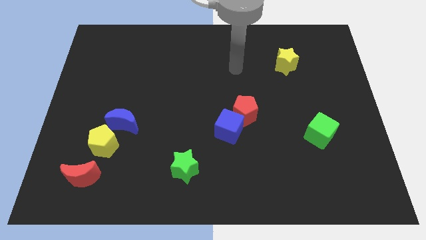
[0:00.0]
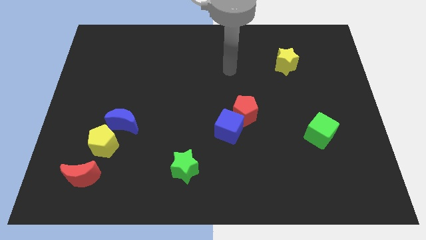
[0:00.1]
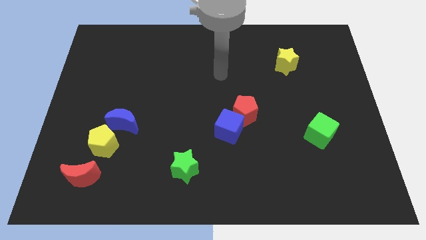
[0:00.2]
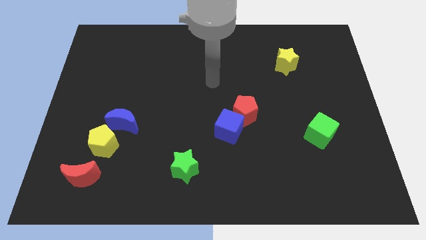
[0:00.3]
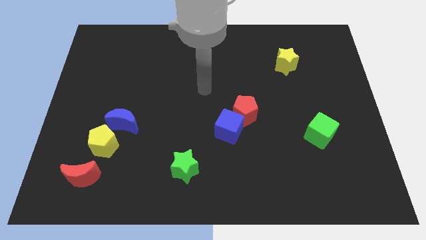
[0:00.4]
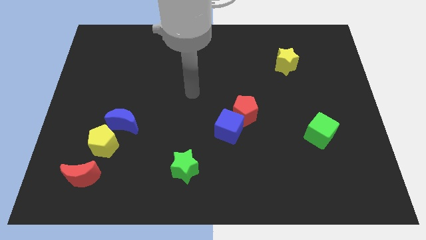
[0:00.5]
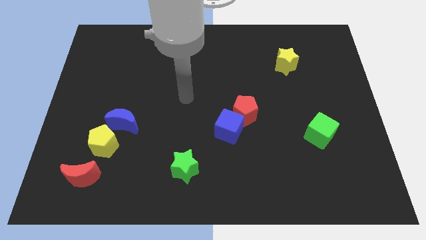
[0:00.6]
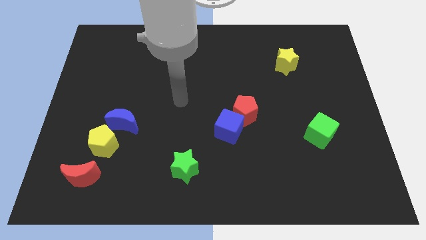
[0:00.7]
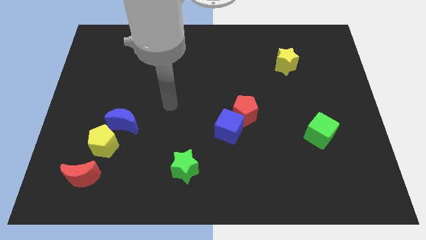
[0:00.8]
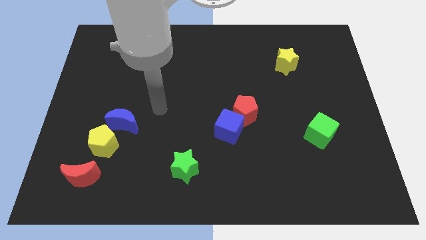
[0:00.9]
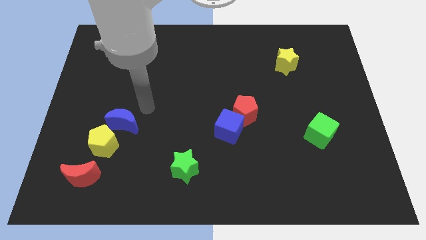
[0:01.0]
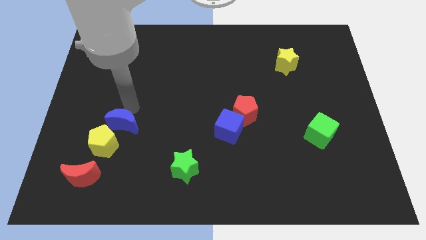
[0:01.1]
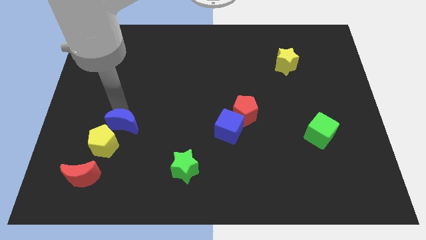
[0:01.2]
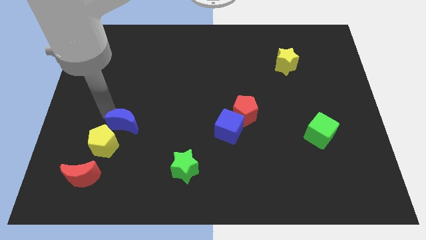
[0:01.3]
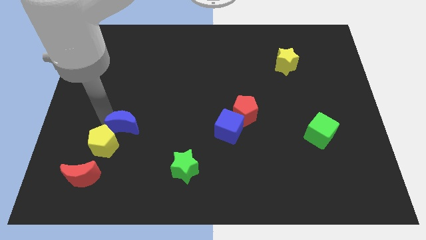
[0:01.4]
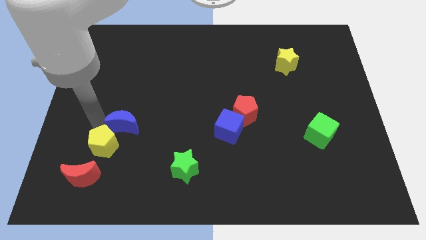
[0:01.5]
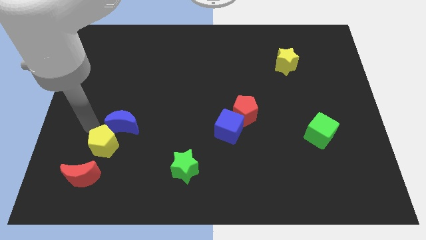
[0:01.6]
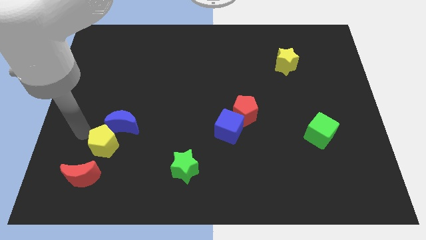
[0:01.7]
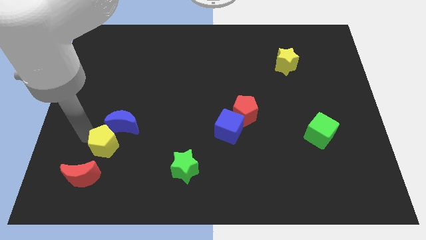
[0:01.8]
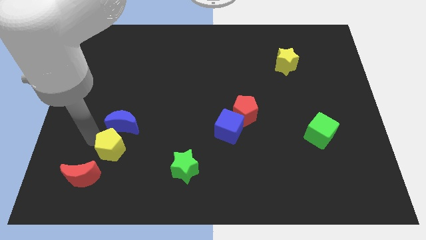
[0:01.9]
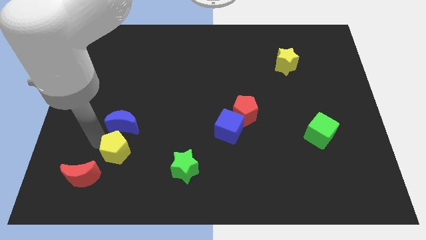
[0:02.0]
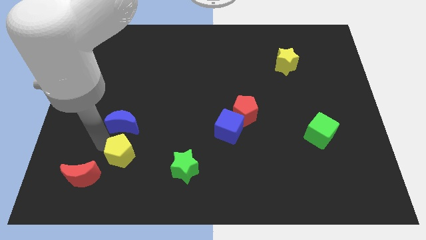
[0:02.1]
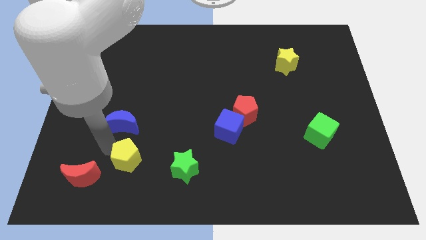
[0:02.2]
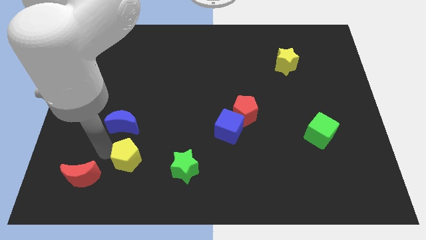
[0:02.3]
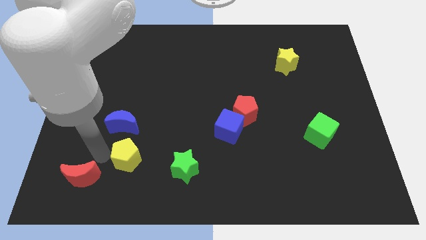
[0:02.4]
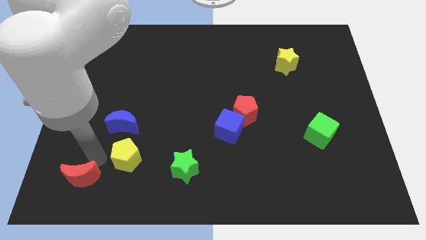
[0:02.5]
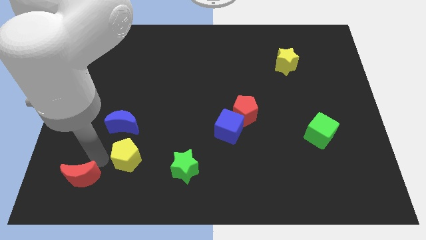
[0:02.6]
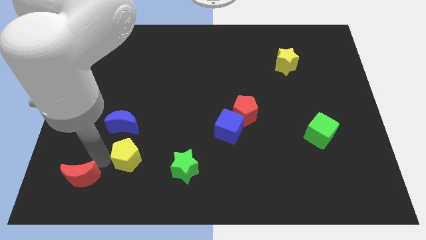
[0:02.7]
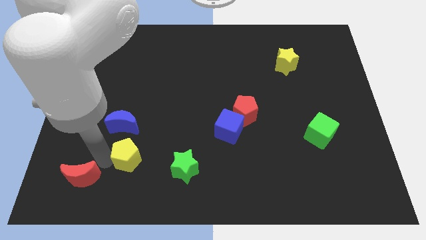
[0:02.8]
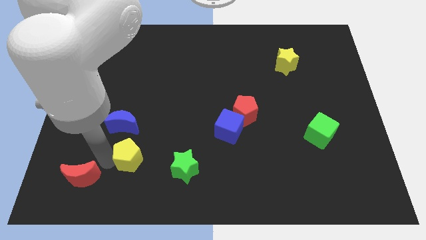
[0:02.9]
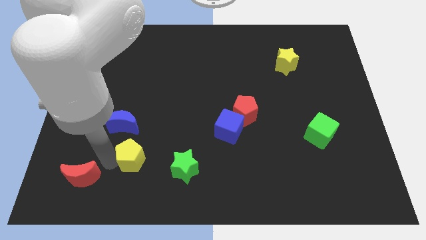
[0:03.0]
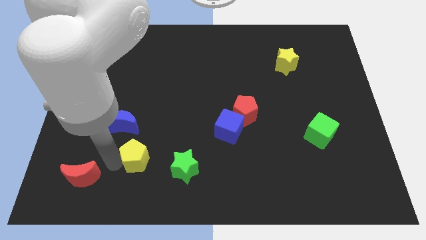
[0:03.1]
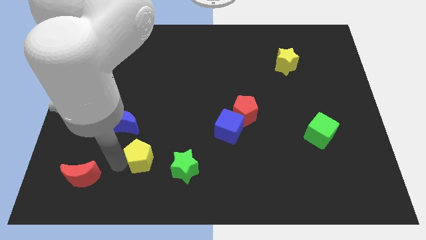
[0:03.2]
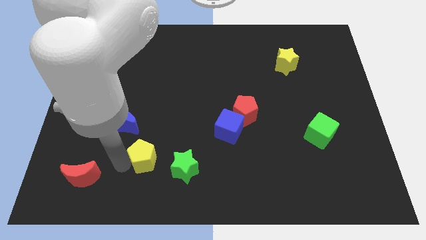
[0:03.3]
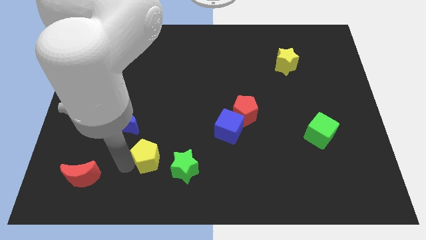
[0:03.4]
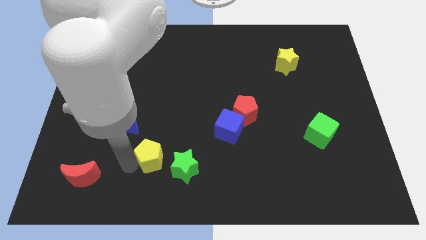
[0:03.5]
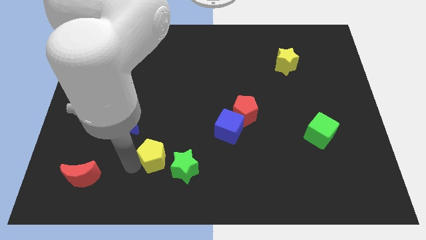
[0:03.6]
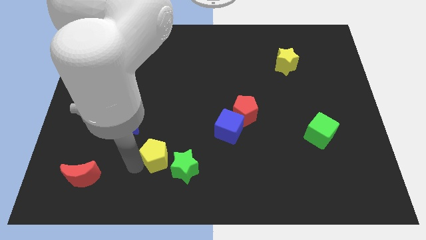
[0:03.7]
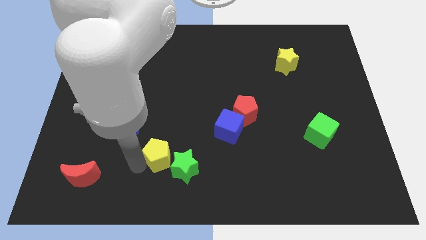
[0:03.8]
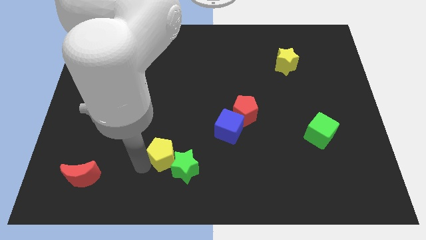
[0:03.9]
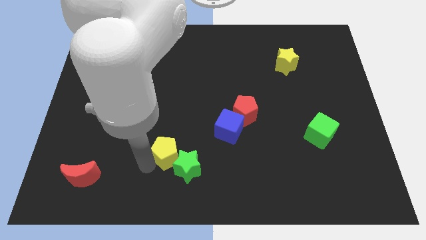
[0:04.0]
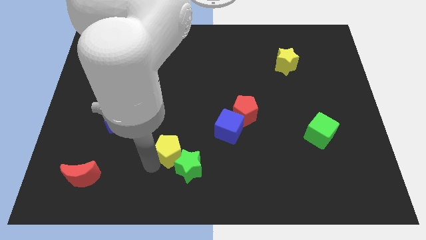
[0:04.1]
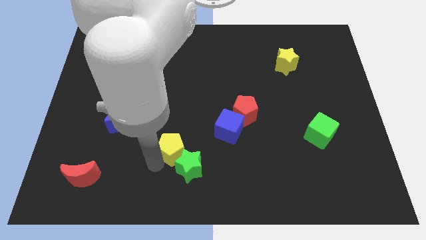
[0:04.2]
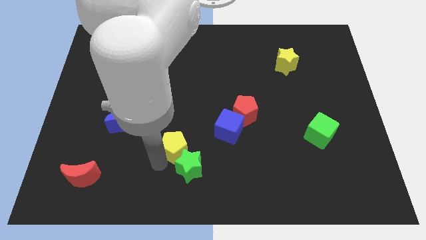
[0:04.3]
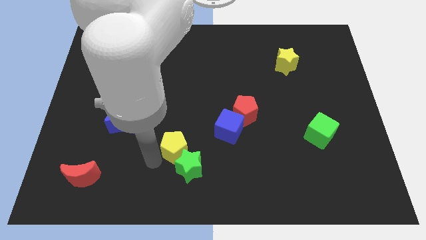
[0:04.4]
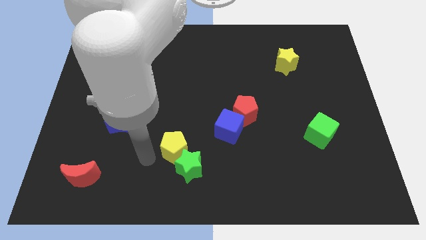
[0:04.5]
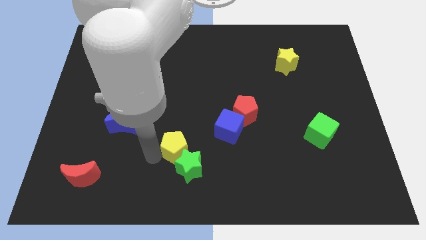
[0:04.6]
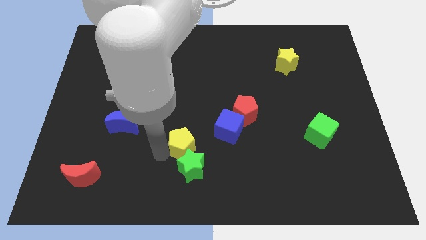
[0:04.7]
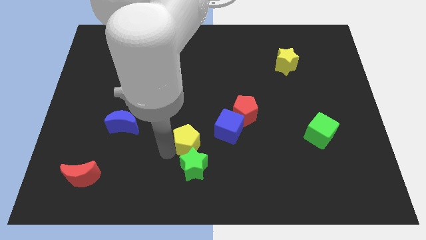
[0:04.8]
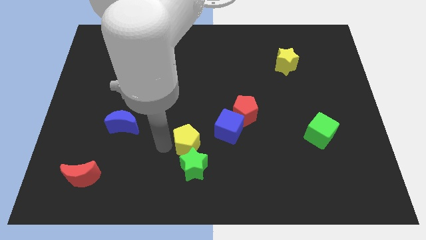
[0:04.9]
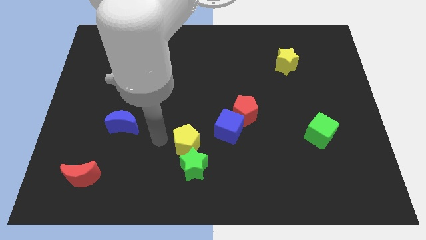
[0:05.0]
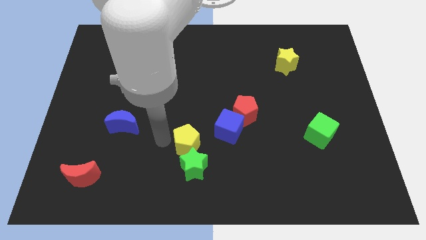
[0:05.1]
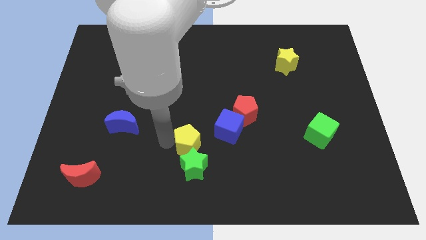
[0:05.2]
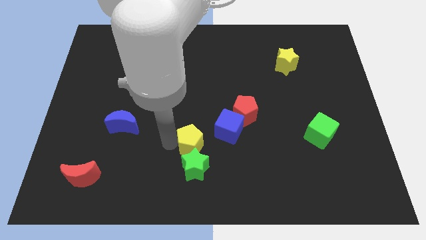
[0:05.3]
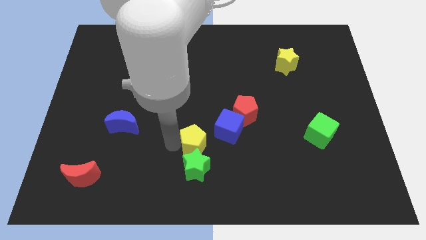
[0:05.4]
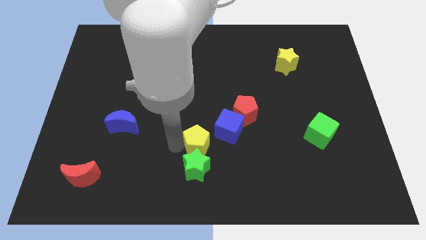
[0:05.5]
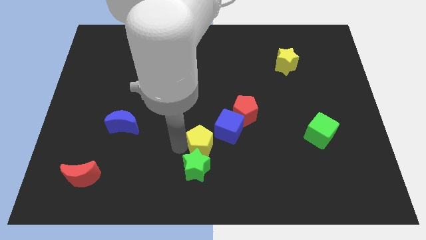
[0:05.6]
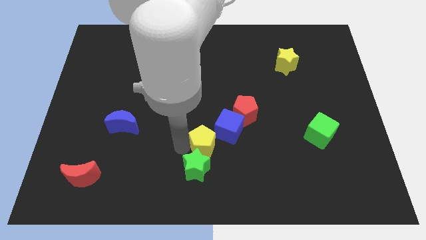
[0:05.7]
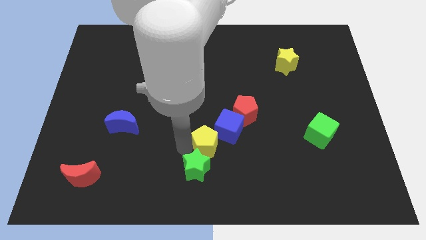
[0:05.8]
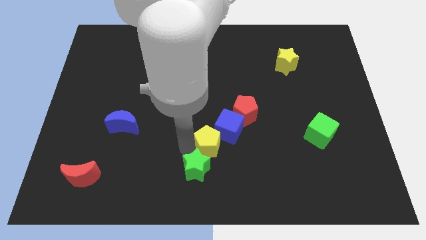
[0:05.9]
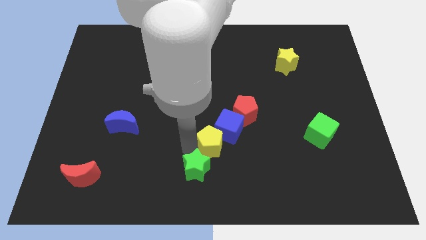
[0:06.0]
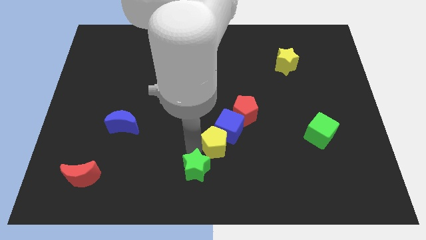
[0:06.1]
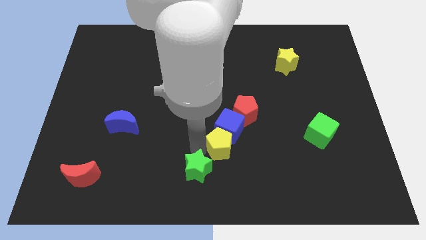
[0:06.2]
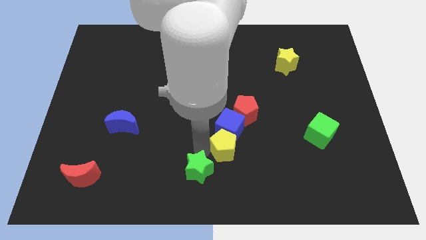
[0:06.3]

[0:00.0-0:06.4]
move the yellow pentagon to the bottom right side of the blue cube

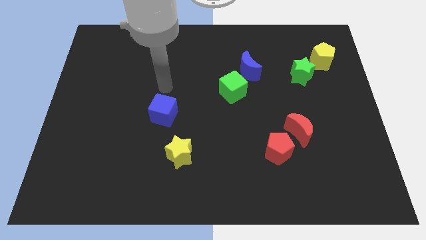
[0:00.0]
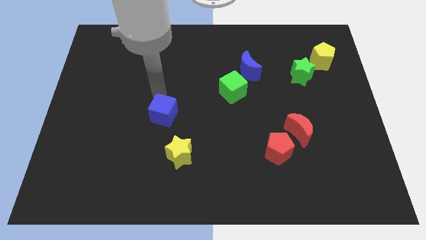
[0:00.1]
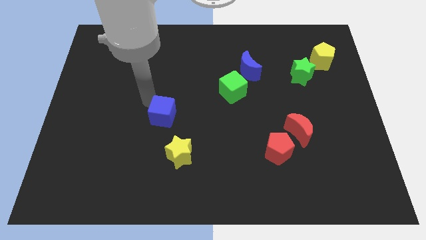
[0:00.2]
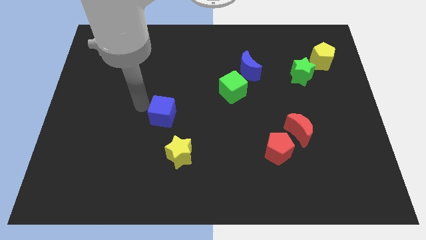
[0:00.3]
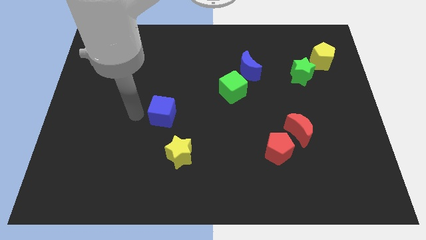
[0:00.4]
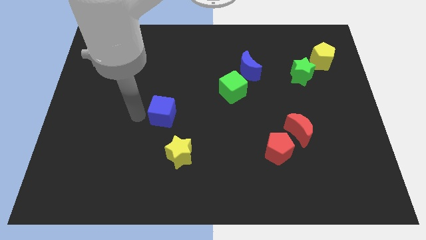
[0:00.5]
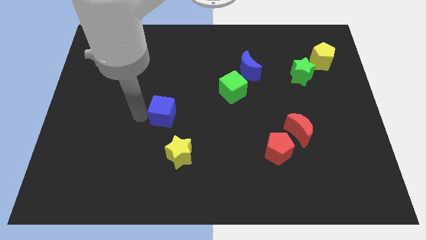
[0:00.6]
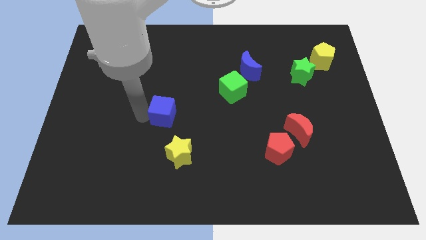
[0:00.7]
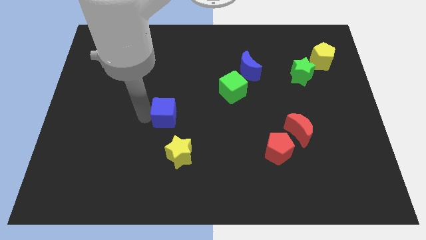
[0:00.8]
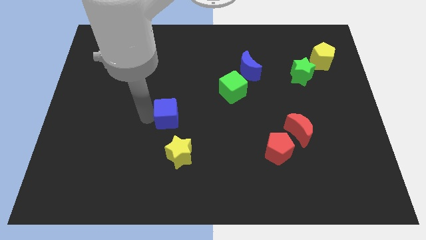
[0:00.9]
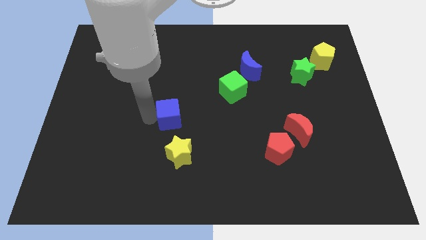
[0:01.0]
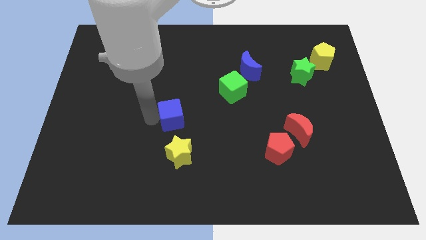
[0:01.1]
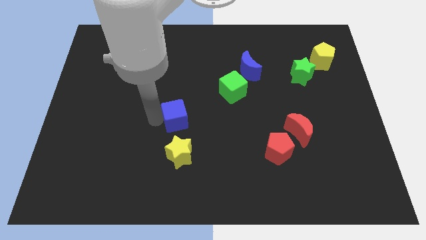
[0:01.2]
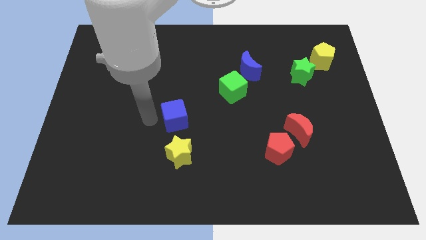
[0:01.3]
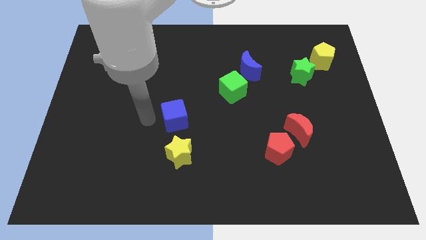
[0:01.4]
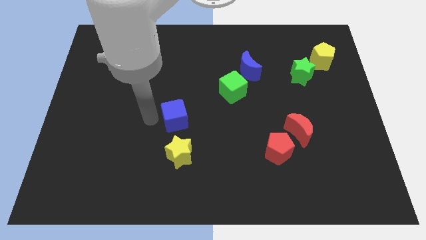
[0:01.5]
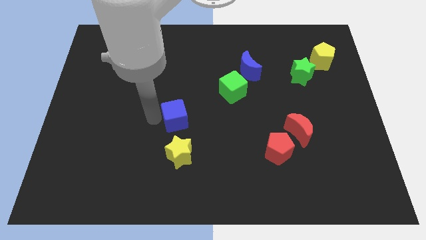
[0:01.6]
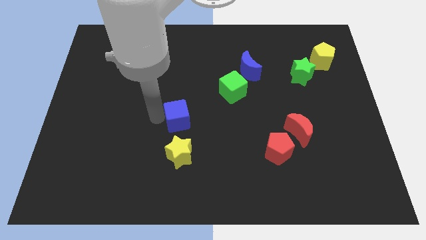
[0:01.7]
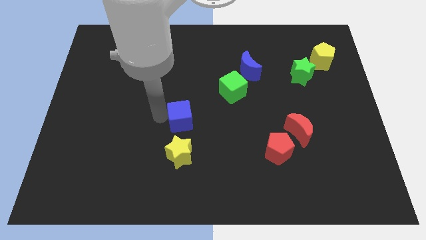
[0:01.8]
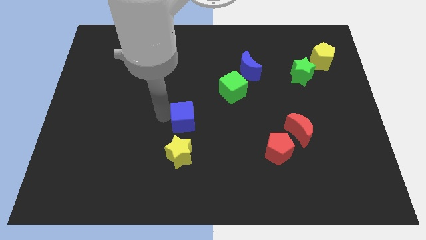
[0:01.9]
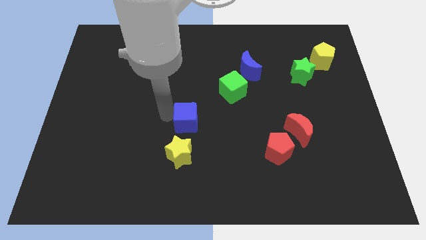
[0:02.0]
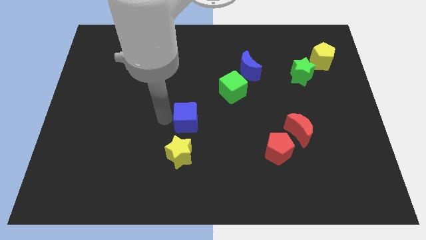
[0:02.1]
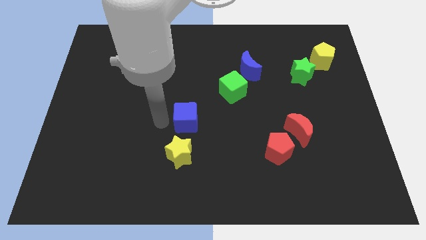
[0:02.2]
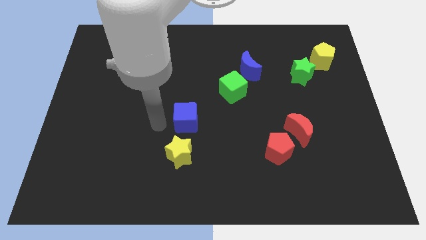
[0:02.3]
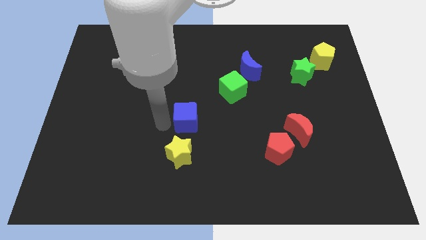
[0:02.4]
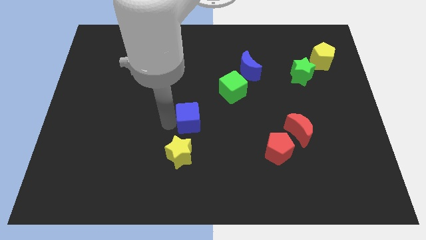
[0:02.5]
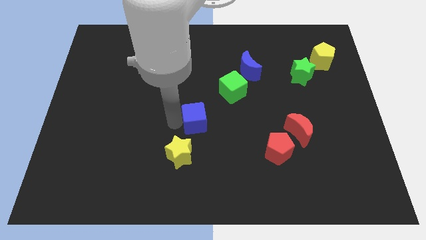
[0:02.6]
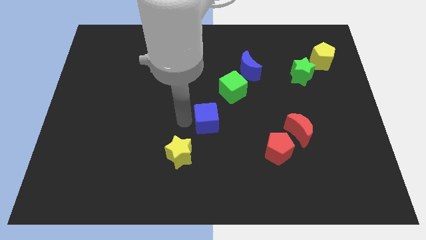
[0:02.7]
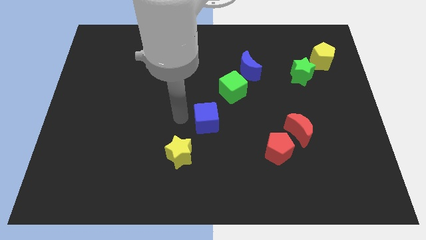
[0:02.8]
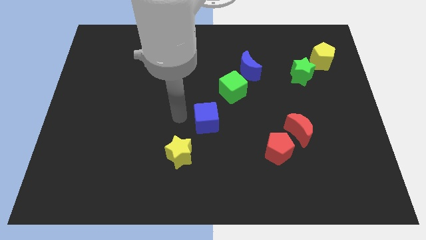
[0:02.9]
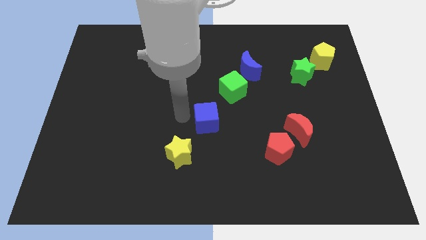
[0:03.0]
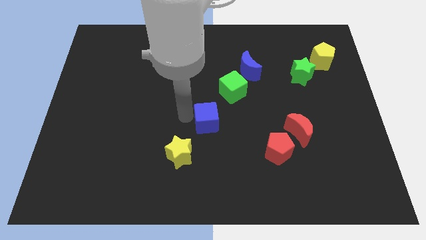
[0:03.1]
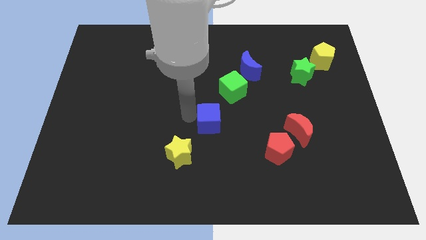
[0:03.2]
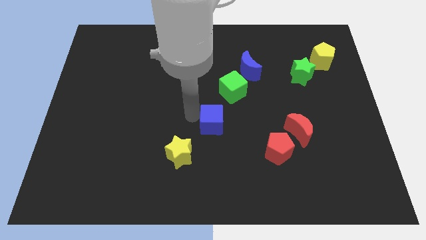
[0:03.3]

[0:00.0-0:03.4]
move the blue cube below the green cube
